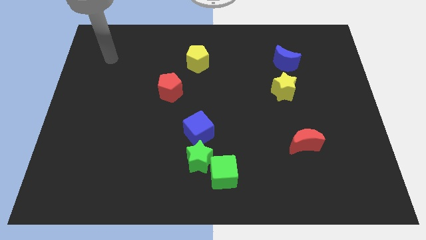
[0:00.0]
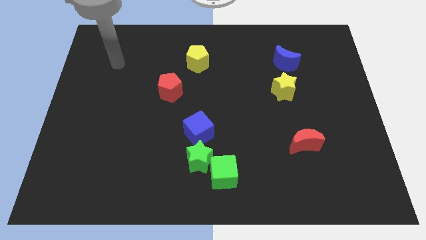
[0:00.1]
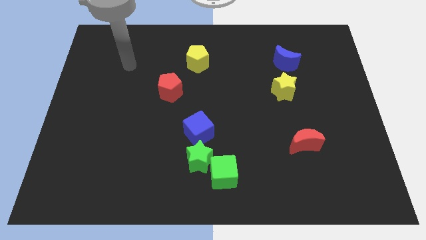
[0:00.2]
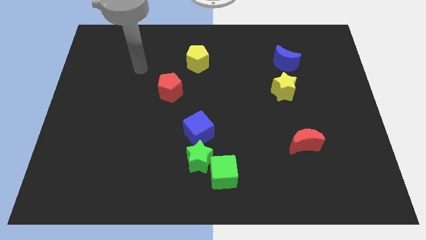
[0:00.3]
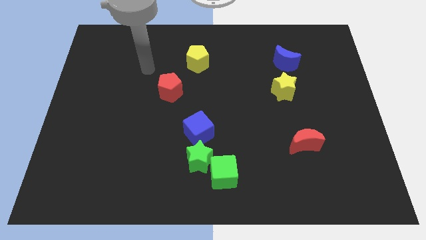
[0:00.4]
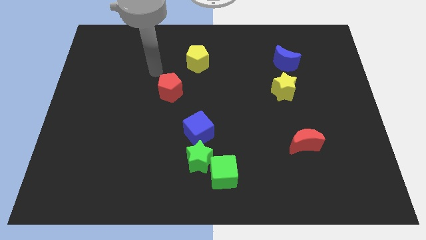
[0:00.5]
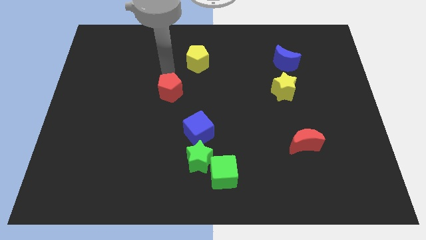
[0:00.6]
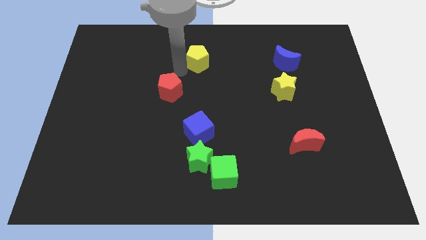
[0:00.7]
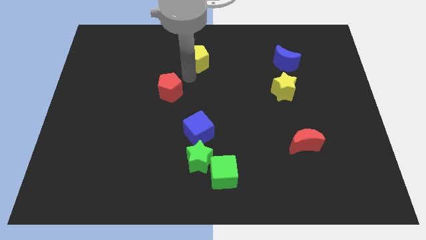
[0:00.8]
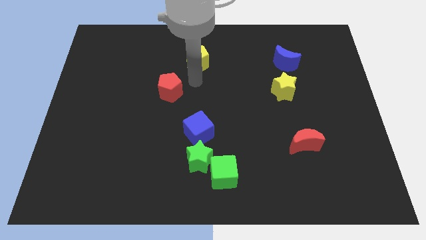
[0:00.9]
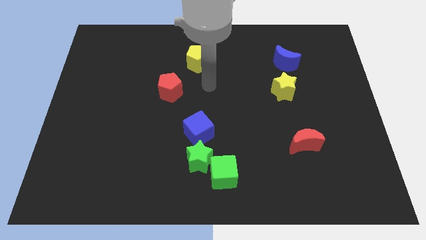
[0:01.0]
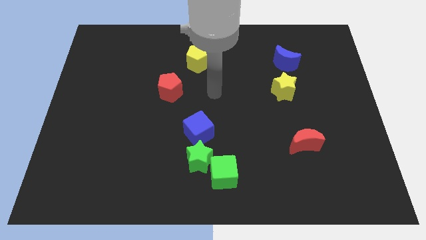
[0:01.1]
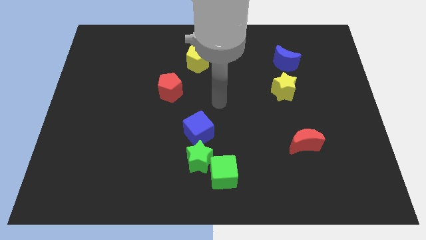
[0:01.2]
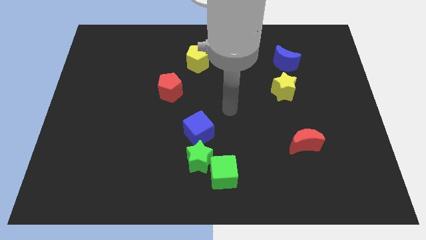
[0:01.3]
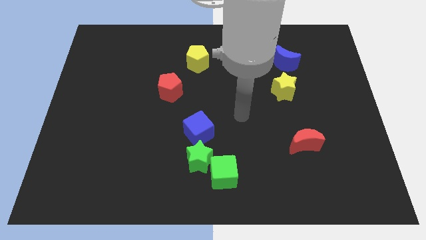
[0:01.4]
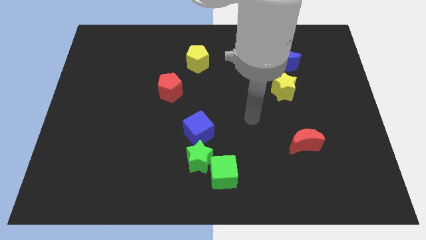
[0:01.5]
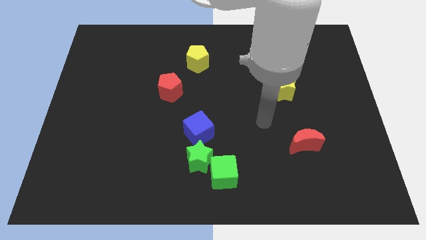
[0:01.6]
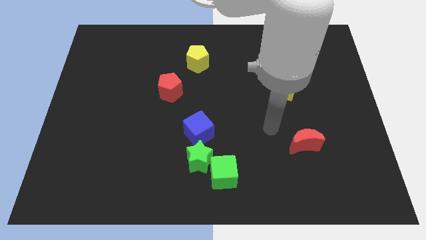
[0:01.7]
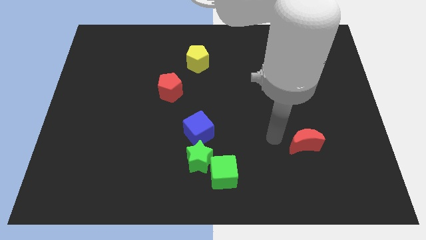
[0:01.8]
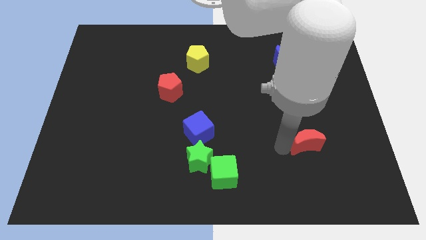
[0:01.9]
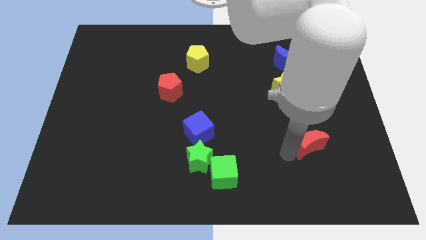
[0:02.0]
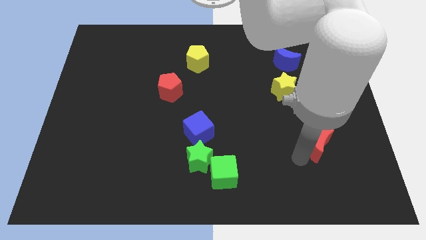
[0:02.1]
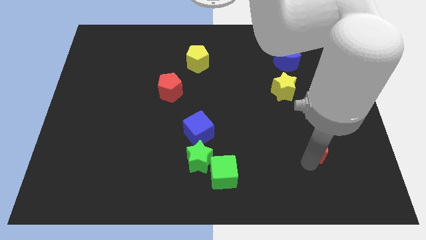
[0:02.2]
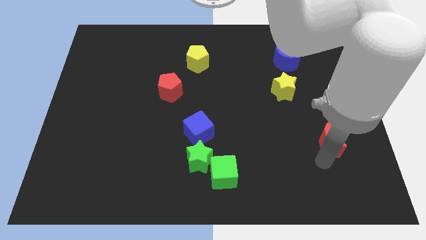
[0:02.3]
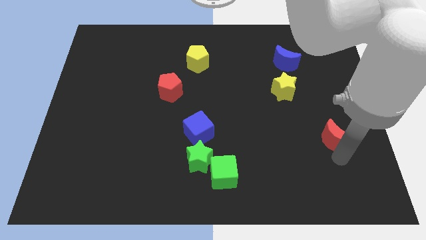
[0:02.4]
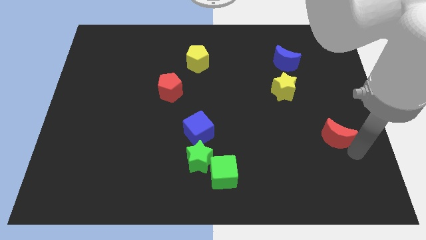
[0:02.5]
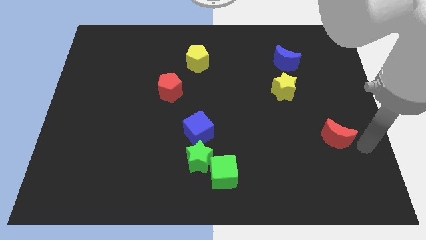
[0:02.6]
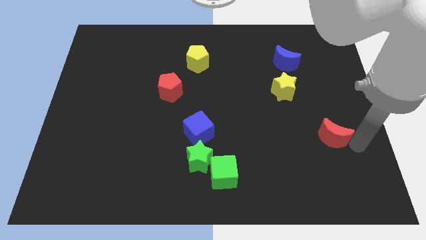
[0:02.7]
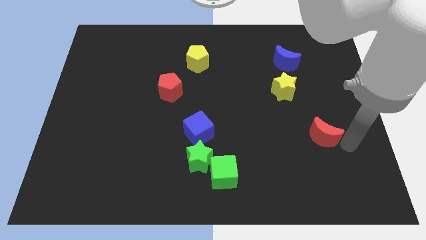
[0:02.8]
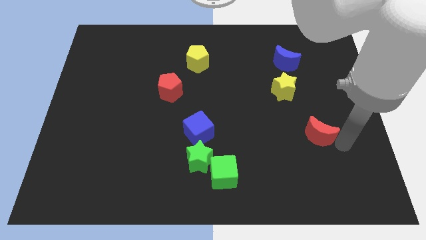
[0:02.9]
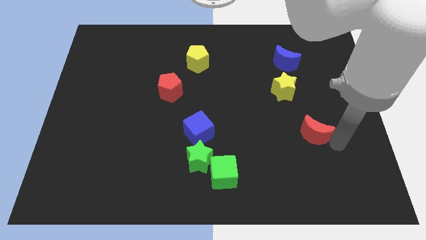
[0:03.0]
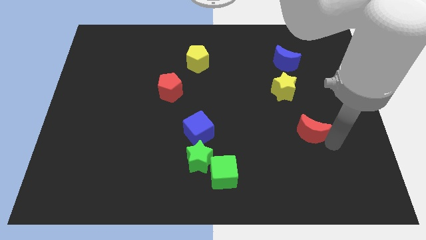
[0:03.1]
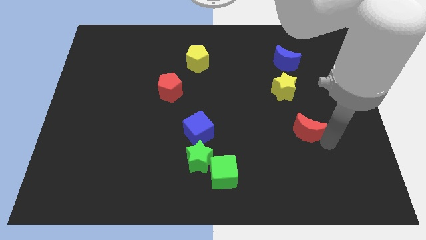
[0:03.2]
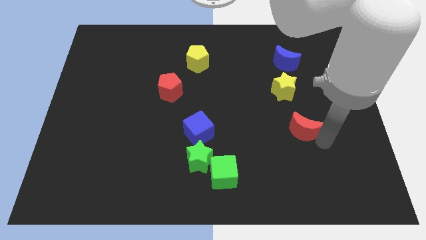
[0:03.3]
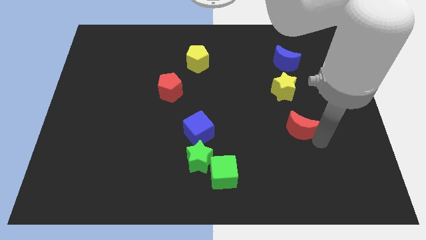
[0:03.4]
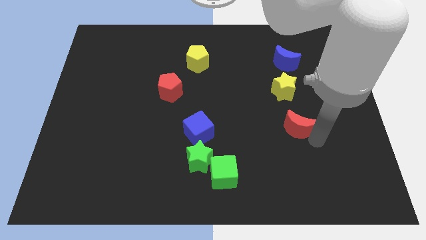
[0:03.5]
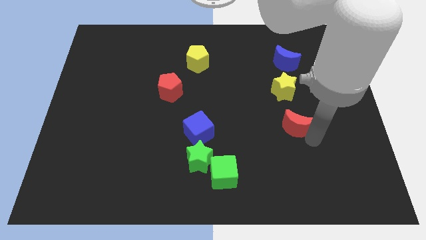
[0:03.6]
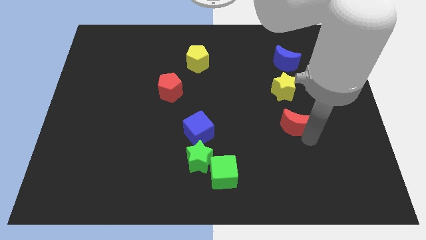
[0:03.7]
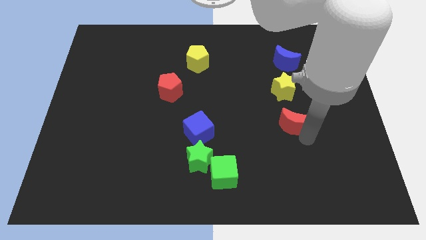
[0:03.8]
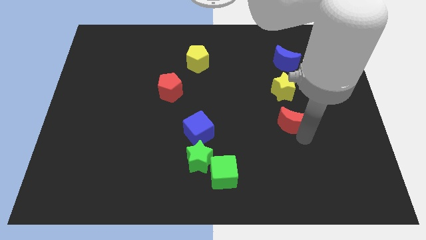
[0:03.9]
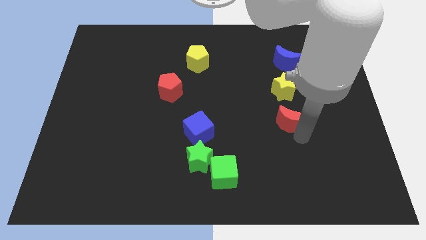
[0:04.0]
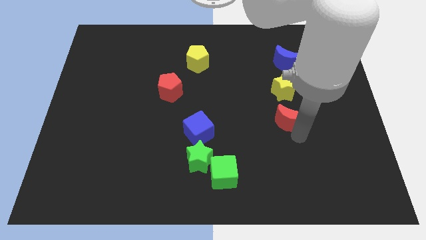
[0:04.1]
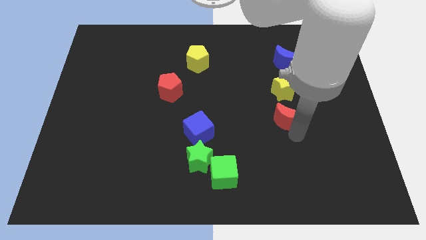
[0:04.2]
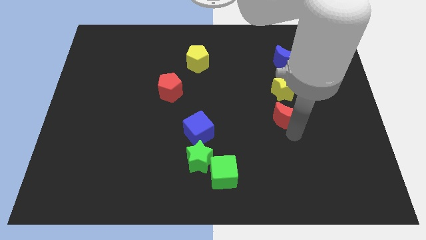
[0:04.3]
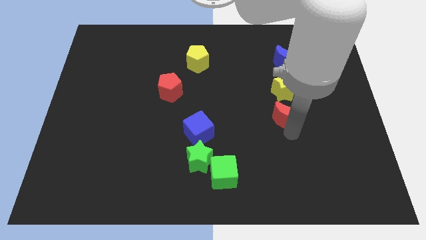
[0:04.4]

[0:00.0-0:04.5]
slightly move the red moon up and to the left diagonally

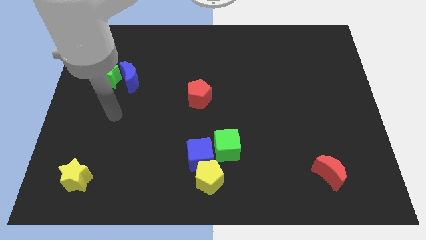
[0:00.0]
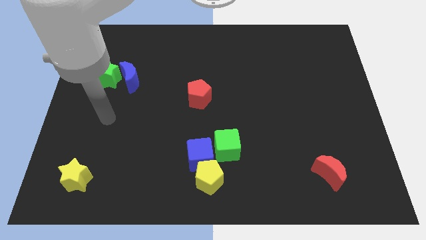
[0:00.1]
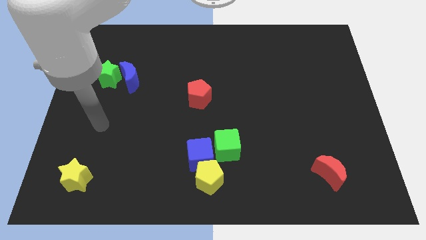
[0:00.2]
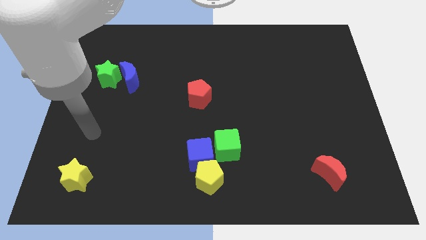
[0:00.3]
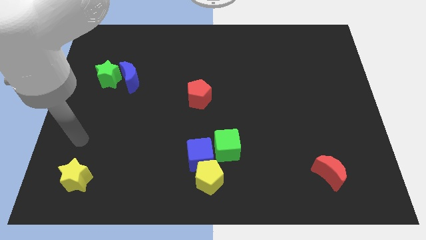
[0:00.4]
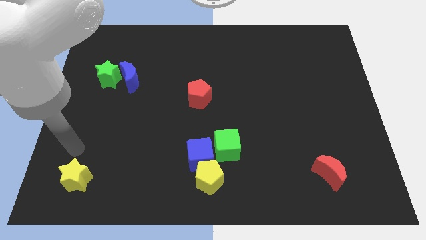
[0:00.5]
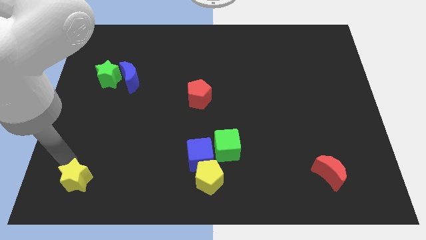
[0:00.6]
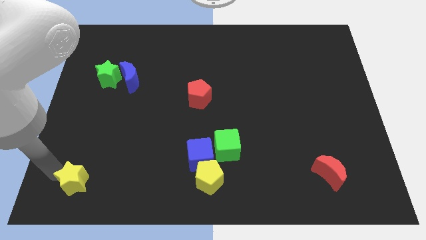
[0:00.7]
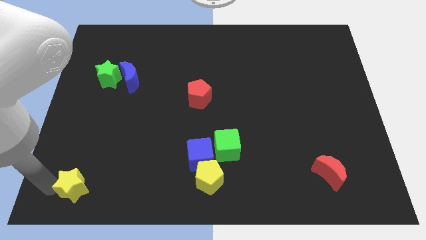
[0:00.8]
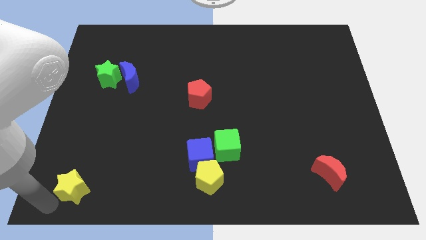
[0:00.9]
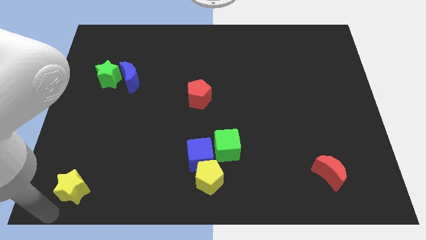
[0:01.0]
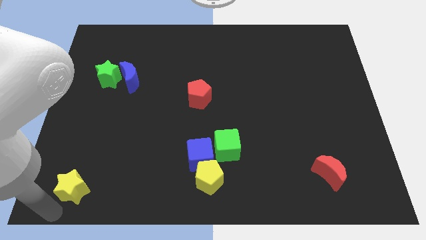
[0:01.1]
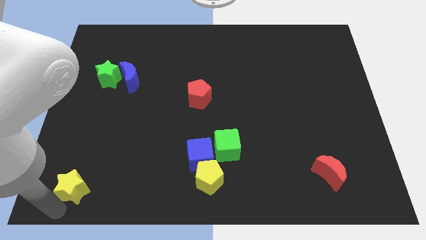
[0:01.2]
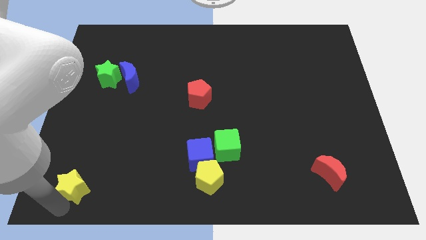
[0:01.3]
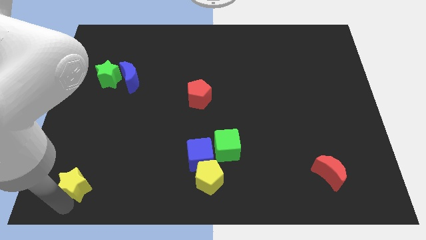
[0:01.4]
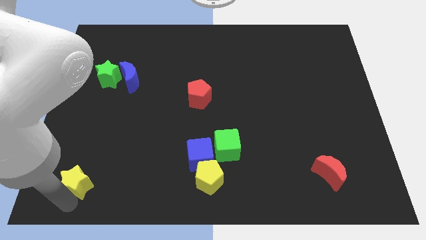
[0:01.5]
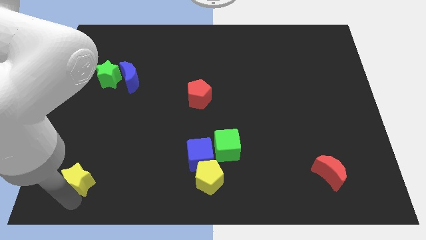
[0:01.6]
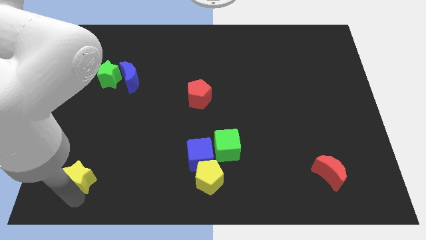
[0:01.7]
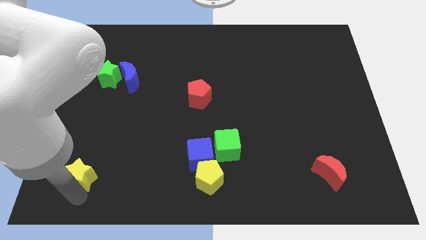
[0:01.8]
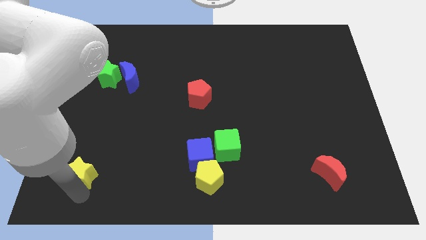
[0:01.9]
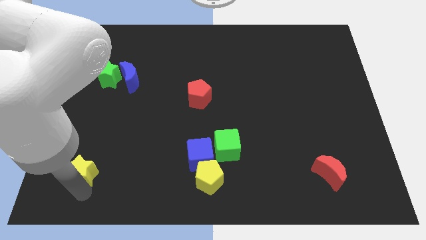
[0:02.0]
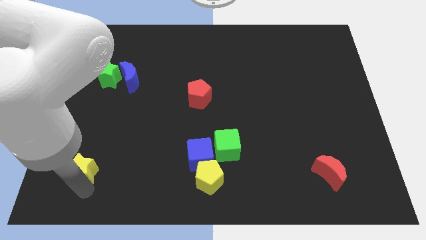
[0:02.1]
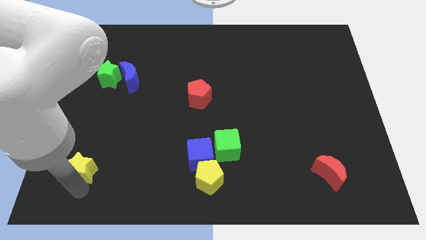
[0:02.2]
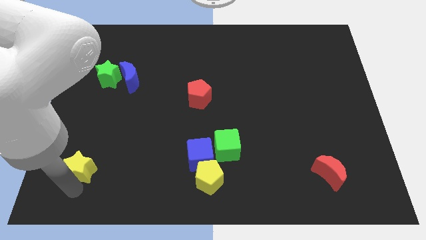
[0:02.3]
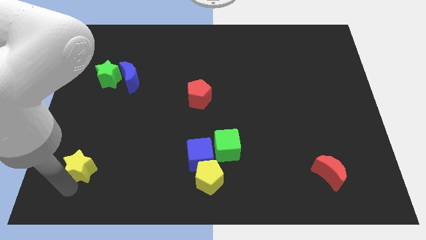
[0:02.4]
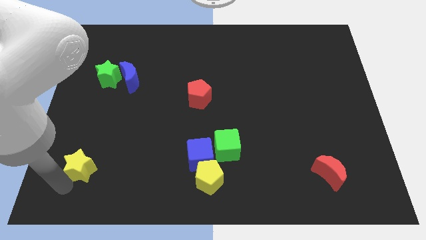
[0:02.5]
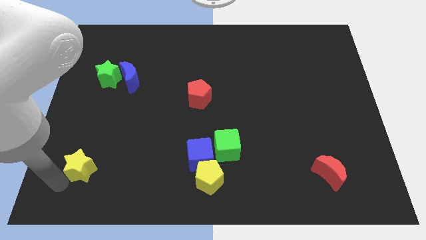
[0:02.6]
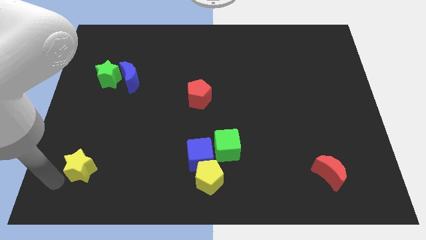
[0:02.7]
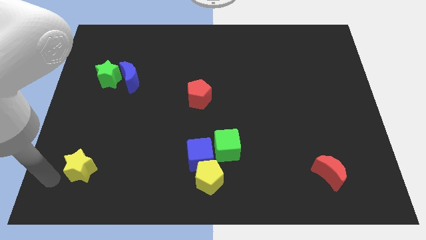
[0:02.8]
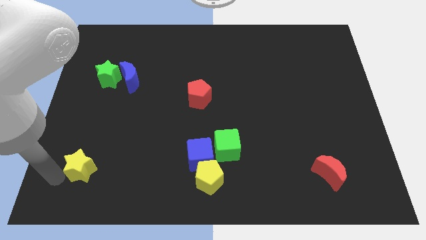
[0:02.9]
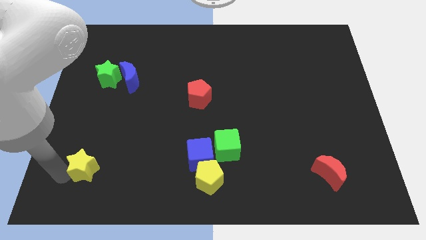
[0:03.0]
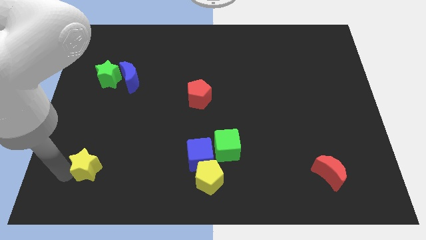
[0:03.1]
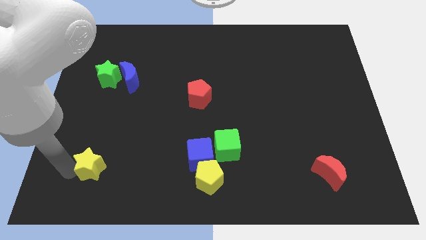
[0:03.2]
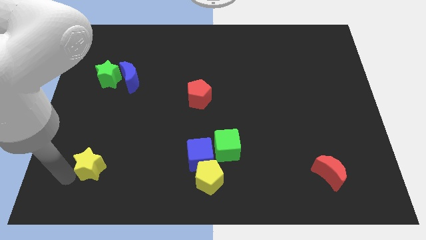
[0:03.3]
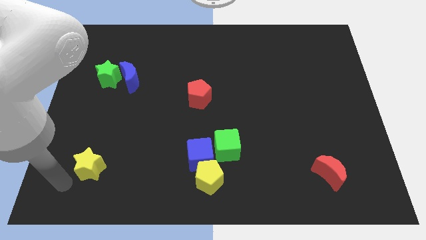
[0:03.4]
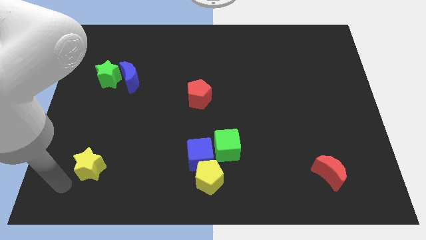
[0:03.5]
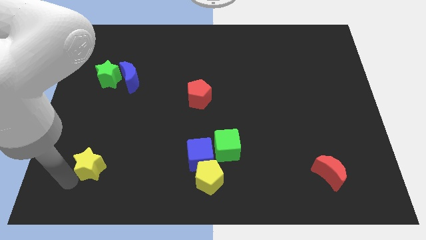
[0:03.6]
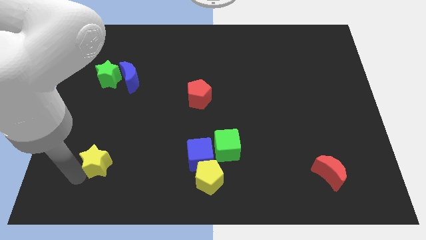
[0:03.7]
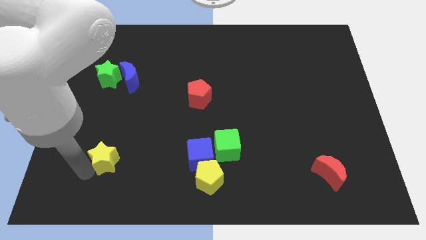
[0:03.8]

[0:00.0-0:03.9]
push the yellow star diagonally up and right a little
